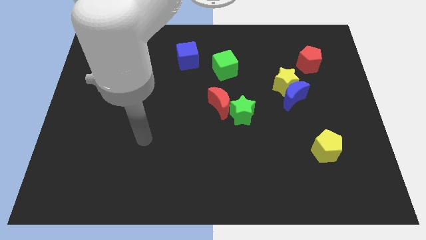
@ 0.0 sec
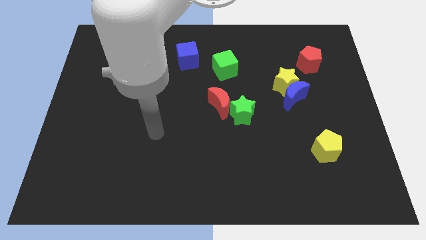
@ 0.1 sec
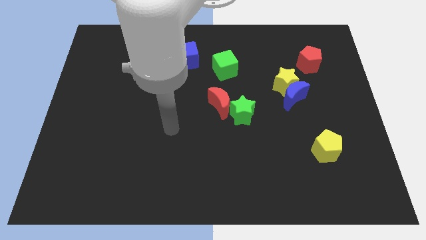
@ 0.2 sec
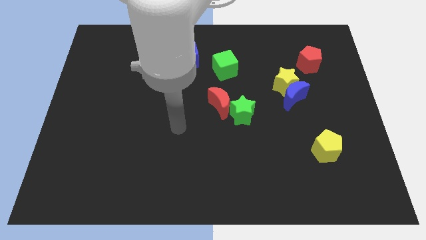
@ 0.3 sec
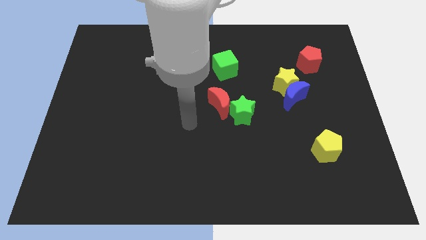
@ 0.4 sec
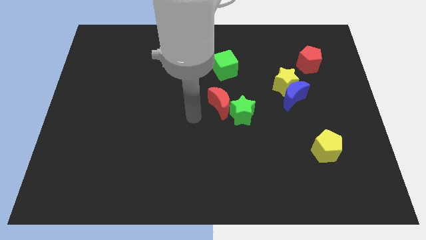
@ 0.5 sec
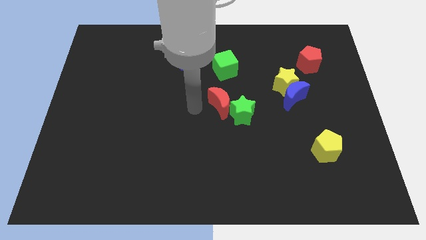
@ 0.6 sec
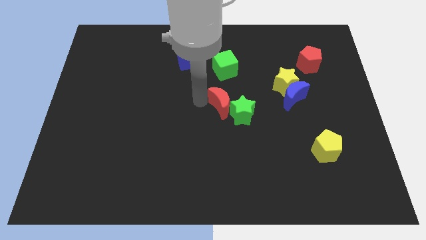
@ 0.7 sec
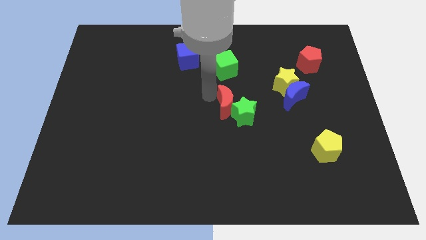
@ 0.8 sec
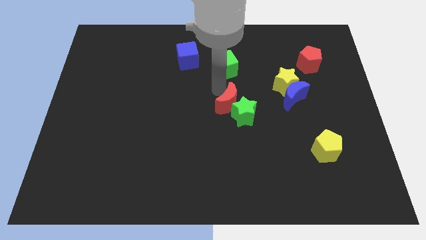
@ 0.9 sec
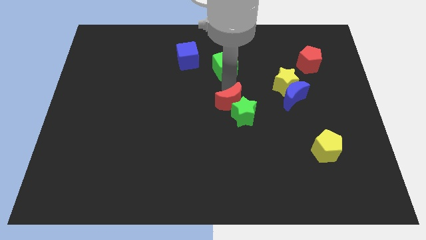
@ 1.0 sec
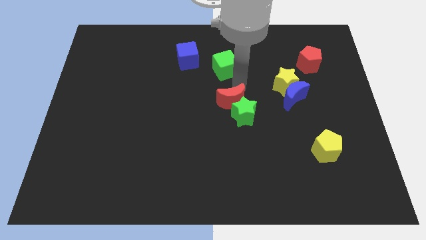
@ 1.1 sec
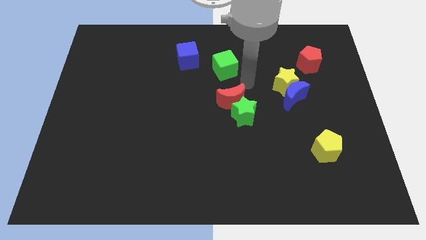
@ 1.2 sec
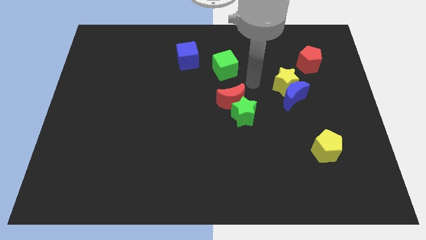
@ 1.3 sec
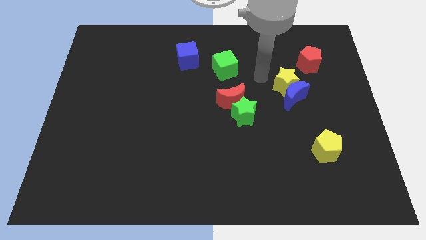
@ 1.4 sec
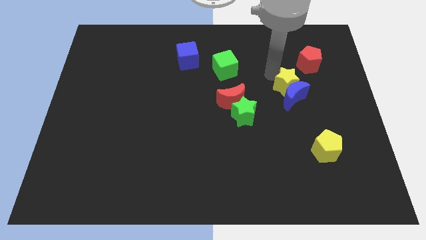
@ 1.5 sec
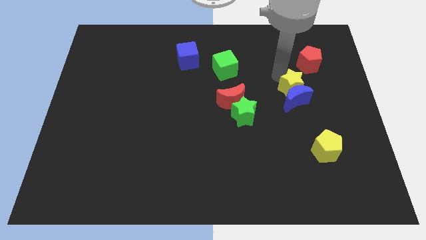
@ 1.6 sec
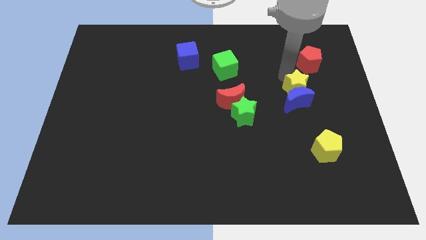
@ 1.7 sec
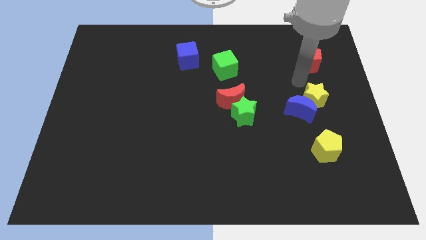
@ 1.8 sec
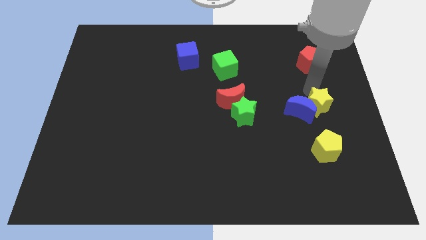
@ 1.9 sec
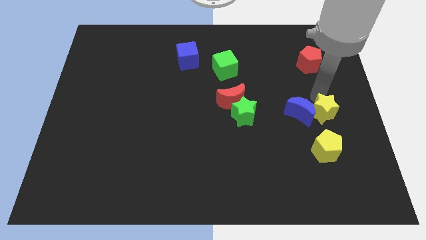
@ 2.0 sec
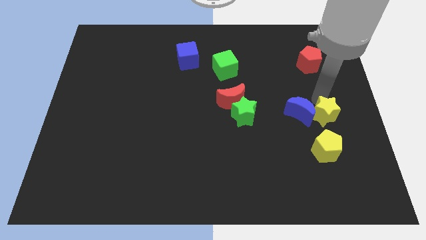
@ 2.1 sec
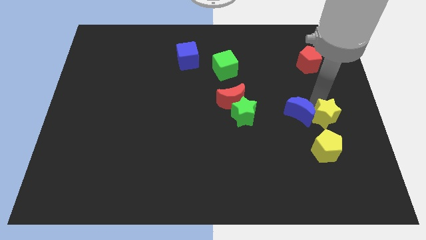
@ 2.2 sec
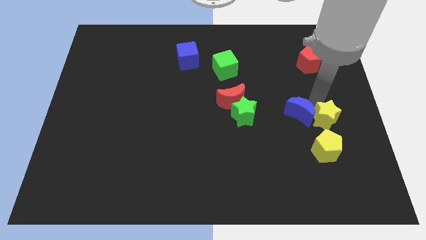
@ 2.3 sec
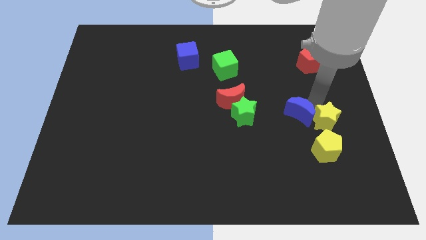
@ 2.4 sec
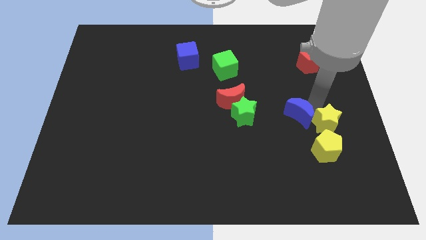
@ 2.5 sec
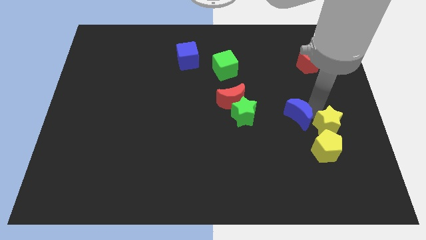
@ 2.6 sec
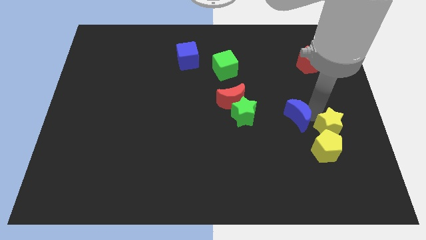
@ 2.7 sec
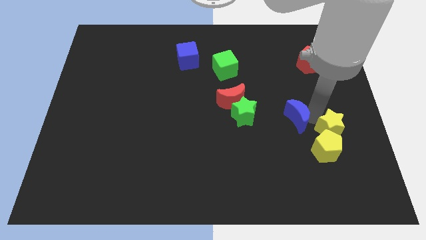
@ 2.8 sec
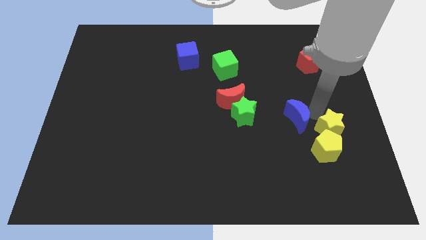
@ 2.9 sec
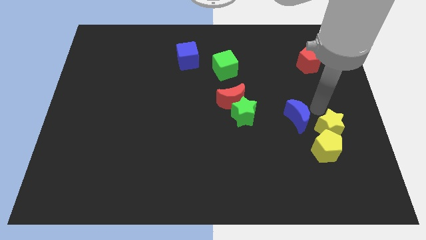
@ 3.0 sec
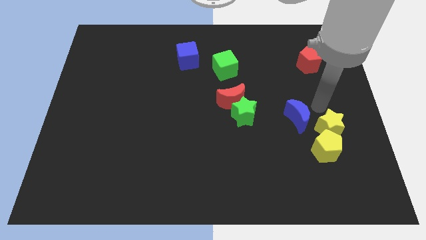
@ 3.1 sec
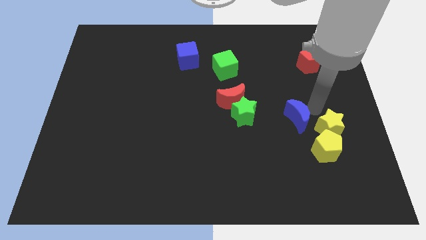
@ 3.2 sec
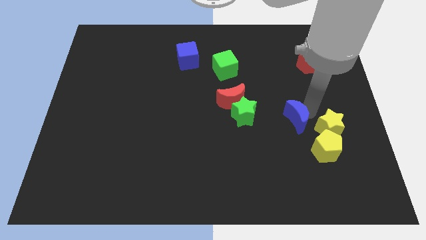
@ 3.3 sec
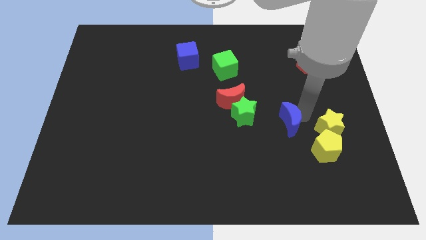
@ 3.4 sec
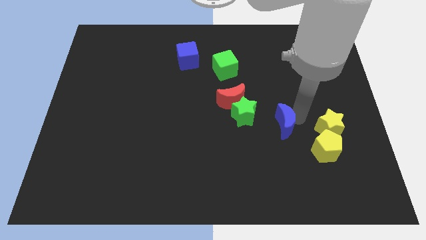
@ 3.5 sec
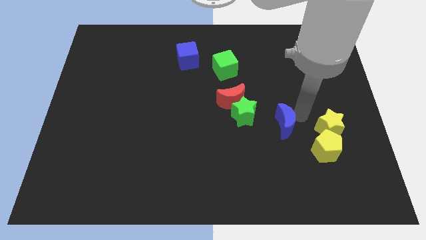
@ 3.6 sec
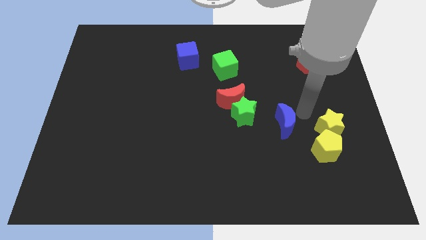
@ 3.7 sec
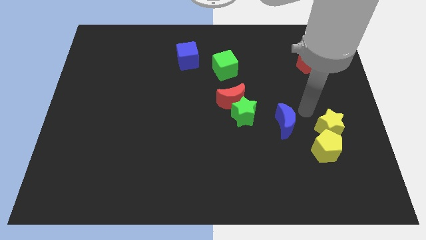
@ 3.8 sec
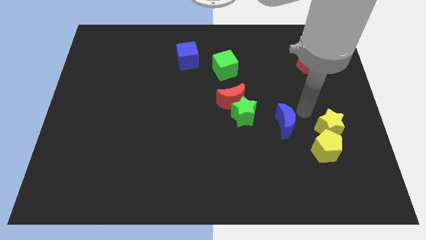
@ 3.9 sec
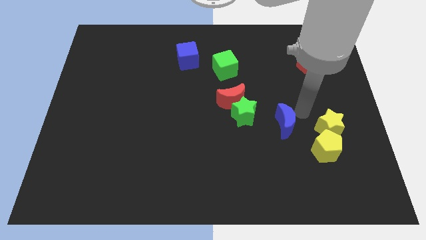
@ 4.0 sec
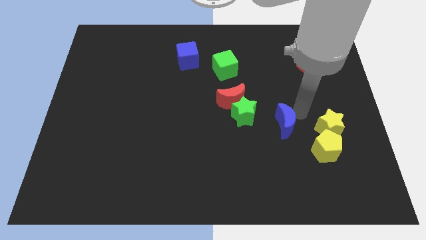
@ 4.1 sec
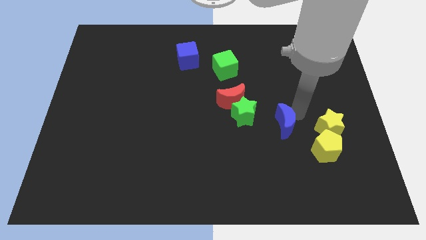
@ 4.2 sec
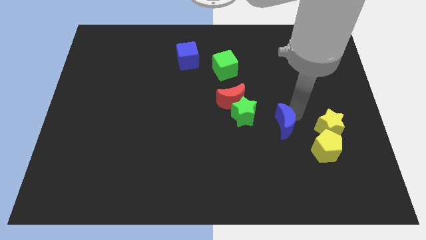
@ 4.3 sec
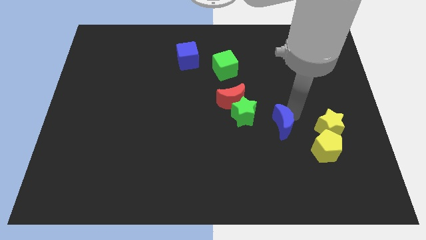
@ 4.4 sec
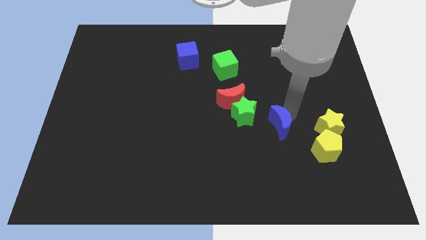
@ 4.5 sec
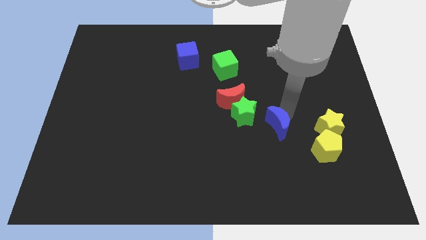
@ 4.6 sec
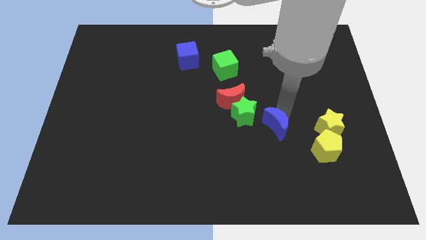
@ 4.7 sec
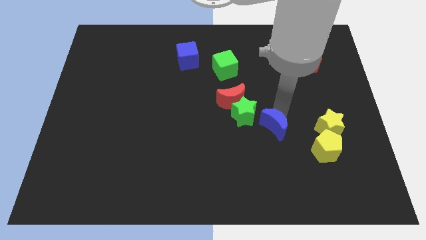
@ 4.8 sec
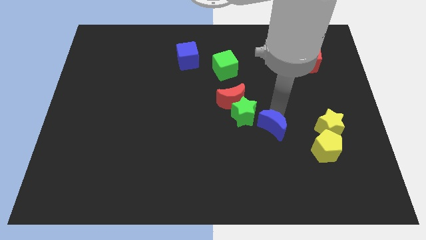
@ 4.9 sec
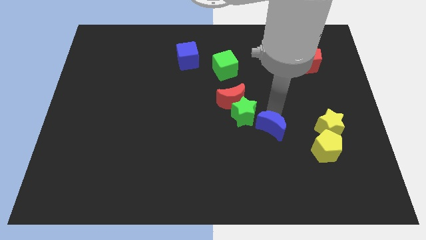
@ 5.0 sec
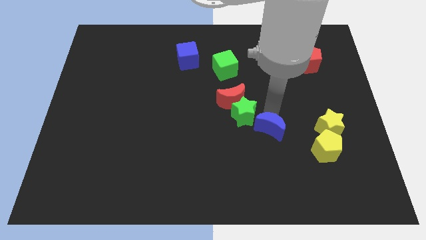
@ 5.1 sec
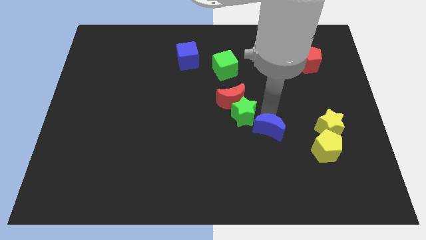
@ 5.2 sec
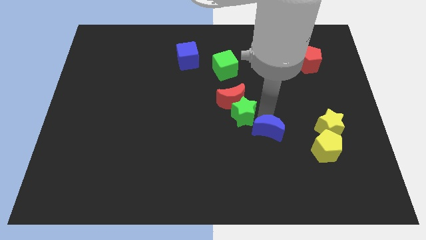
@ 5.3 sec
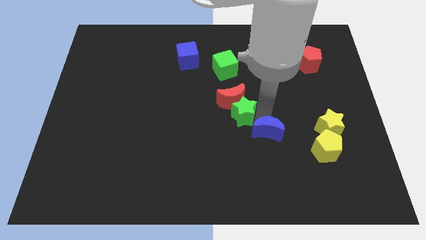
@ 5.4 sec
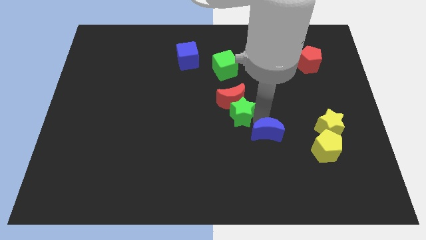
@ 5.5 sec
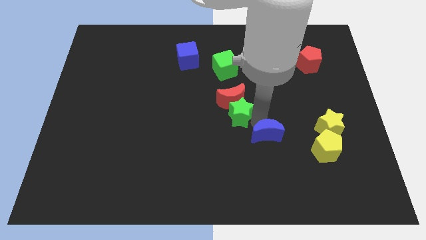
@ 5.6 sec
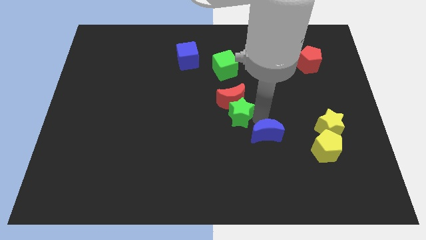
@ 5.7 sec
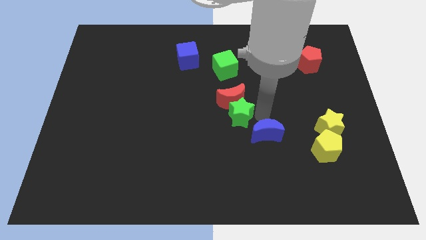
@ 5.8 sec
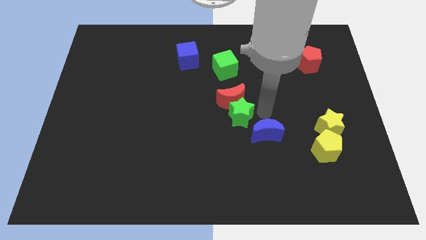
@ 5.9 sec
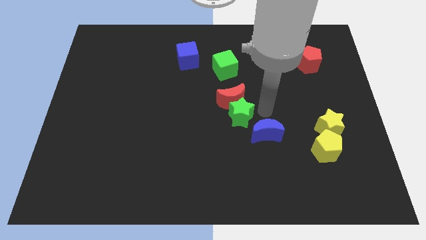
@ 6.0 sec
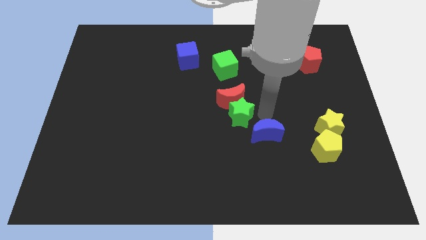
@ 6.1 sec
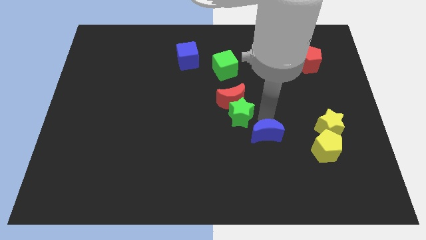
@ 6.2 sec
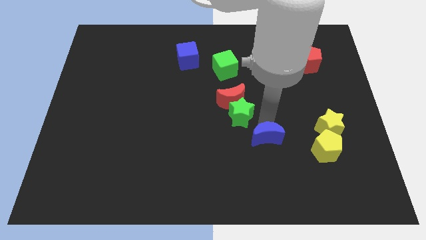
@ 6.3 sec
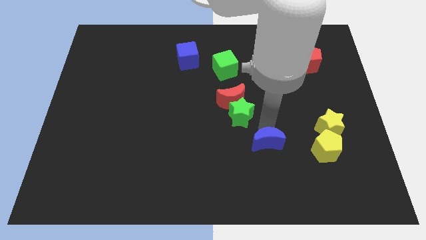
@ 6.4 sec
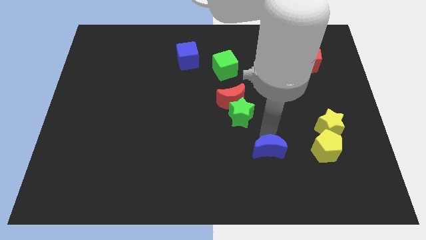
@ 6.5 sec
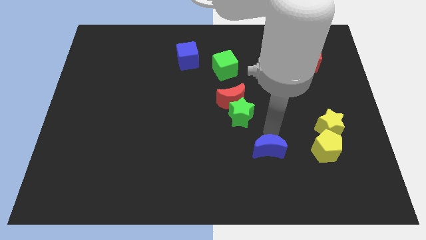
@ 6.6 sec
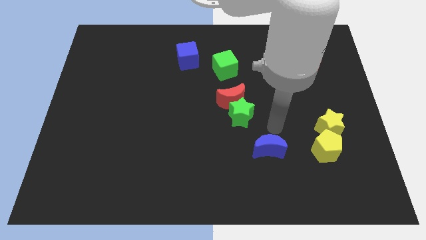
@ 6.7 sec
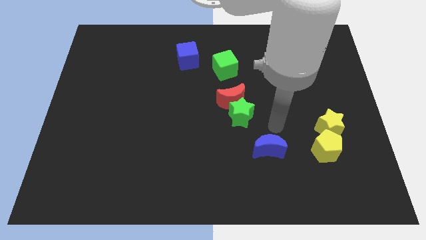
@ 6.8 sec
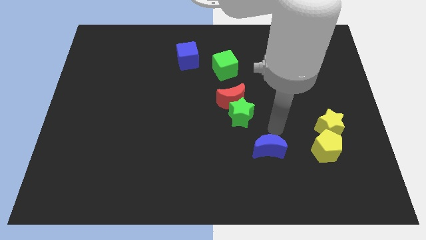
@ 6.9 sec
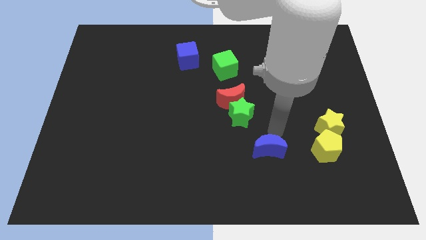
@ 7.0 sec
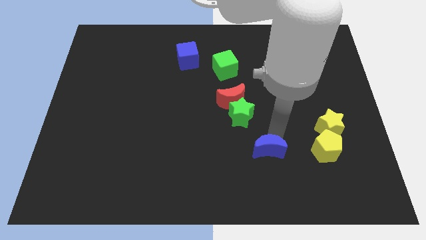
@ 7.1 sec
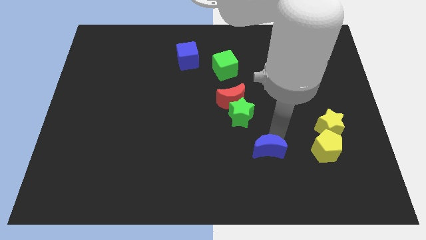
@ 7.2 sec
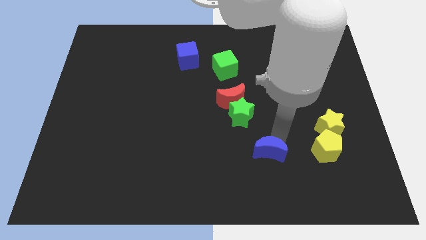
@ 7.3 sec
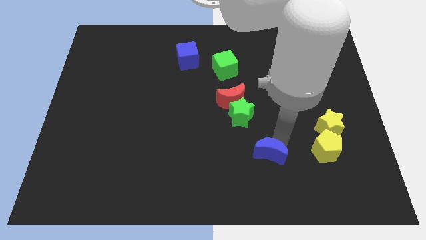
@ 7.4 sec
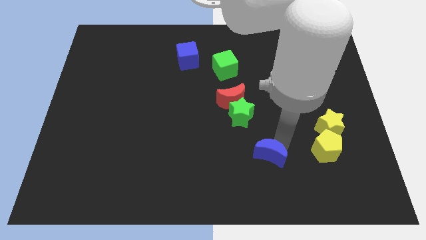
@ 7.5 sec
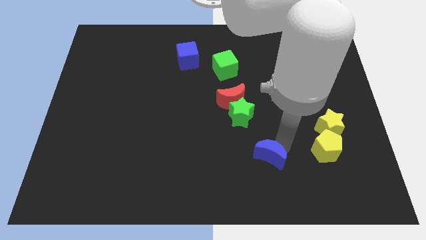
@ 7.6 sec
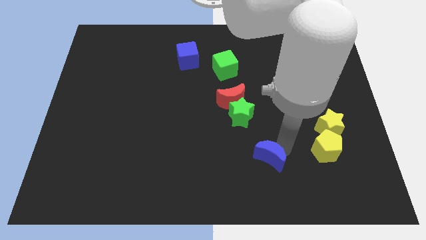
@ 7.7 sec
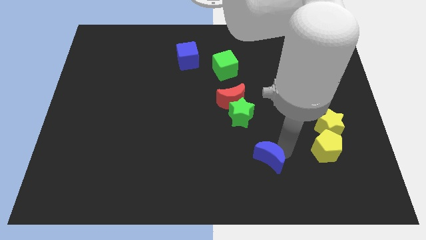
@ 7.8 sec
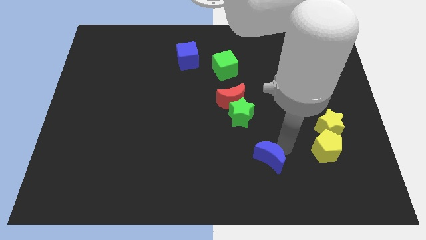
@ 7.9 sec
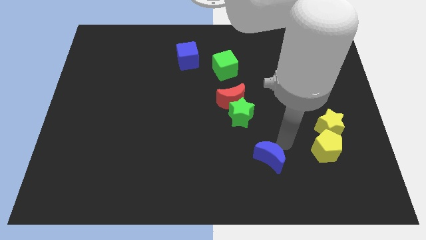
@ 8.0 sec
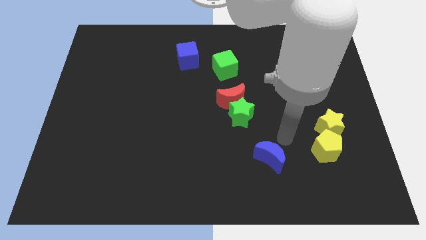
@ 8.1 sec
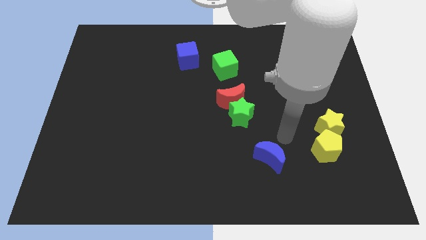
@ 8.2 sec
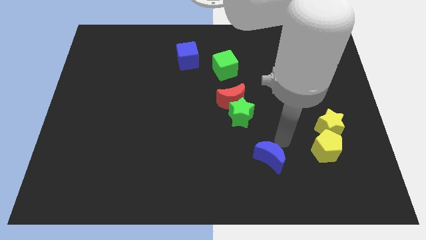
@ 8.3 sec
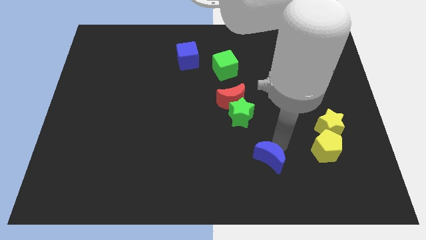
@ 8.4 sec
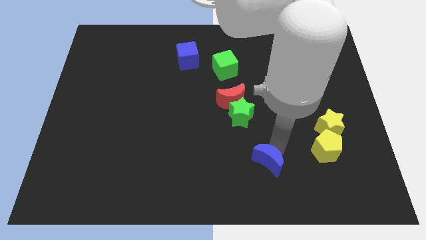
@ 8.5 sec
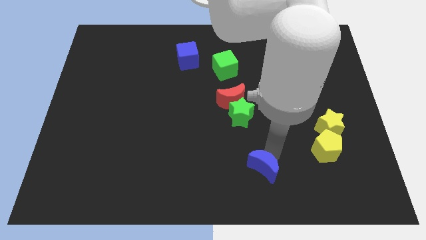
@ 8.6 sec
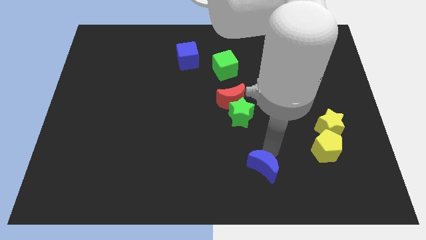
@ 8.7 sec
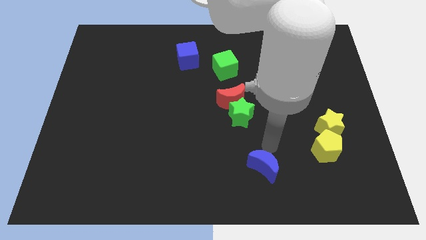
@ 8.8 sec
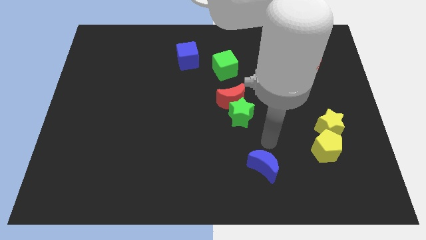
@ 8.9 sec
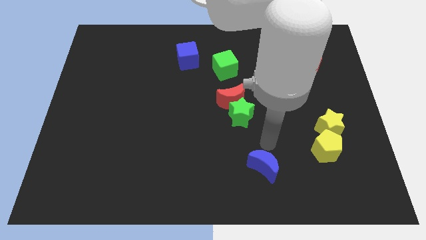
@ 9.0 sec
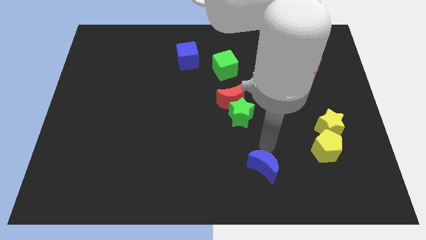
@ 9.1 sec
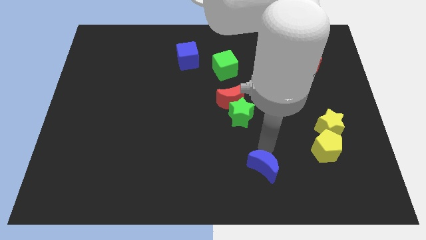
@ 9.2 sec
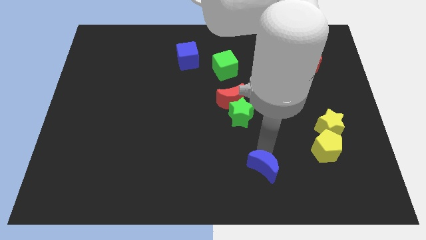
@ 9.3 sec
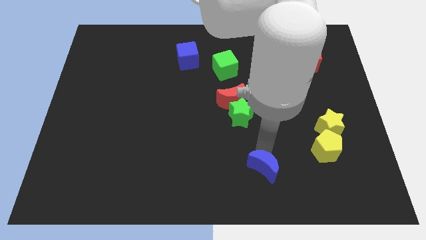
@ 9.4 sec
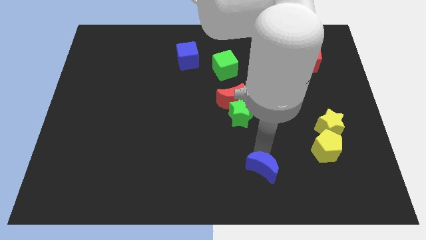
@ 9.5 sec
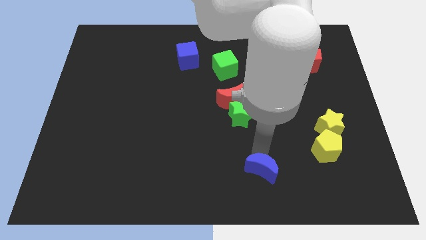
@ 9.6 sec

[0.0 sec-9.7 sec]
push the blue moon to the bottom side
